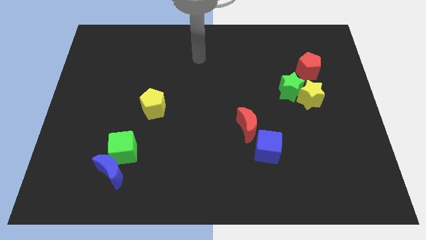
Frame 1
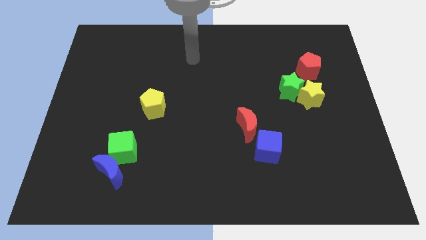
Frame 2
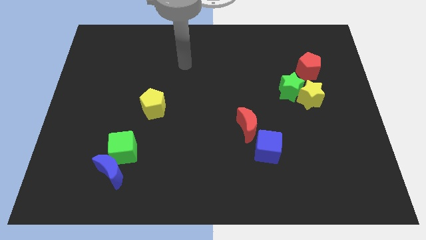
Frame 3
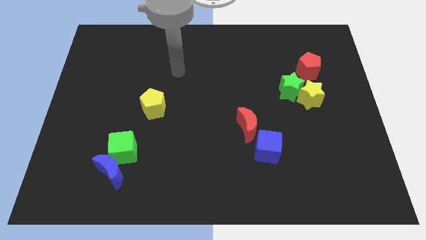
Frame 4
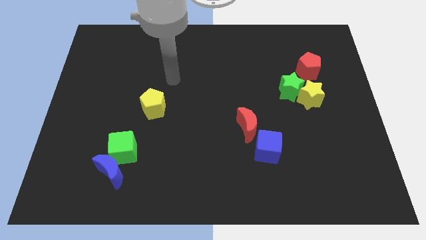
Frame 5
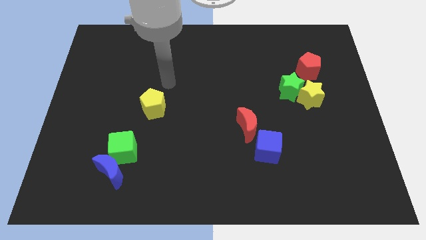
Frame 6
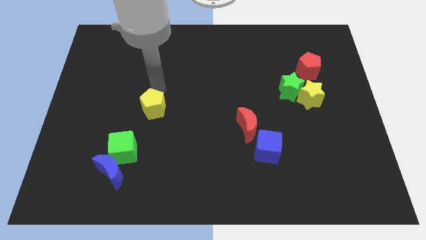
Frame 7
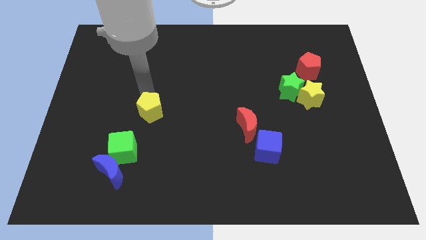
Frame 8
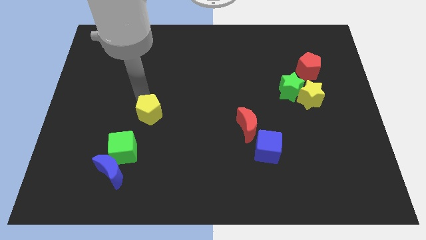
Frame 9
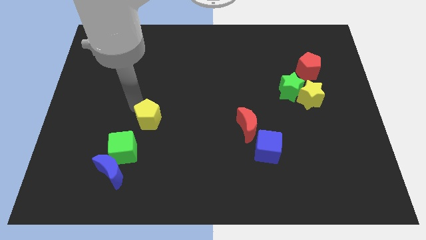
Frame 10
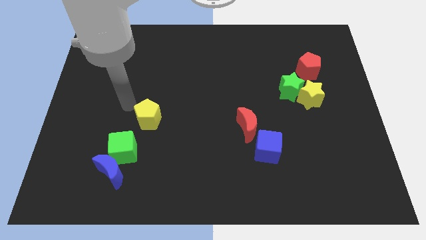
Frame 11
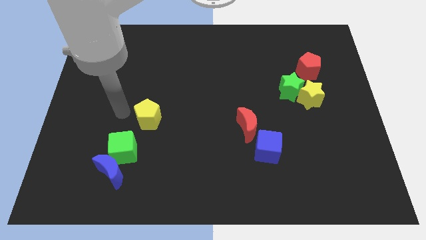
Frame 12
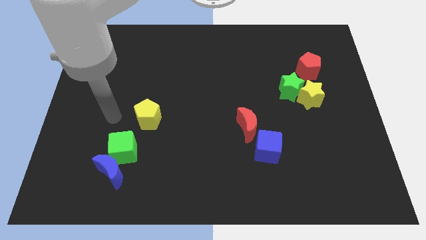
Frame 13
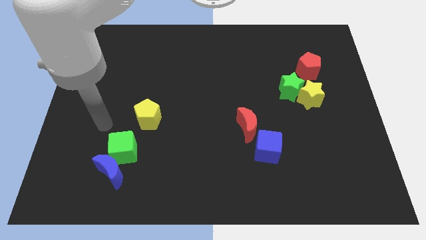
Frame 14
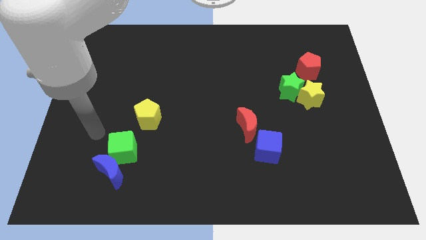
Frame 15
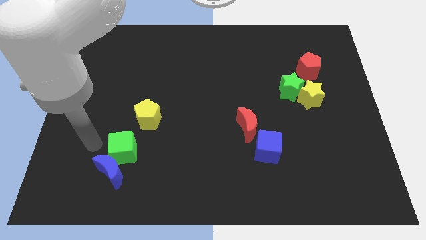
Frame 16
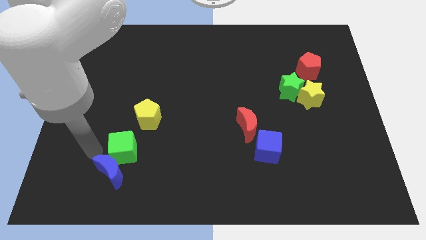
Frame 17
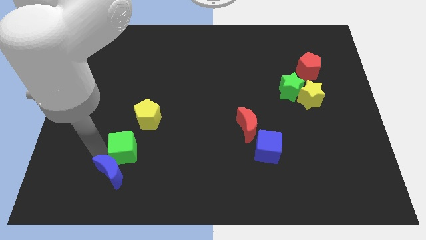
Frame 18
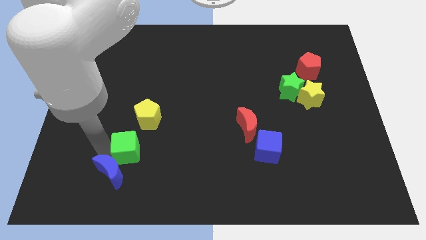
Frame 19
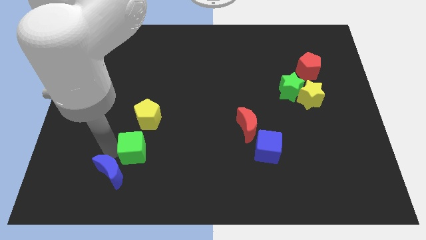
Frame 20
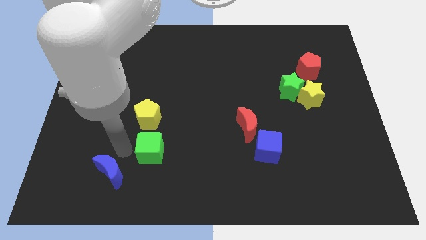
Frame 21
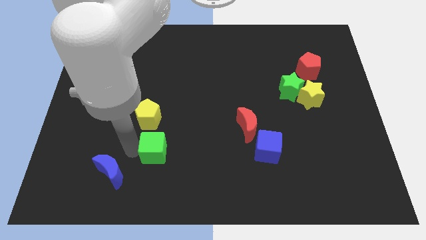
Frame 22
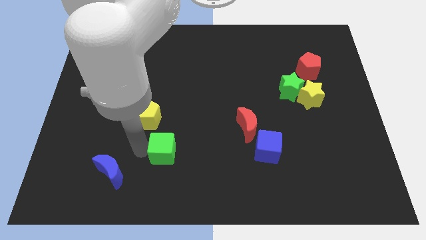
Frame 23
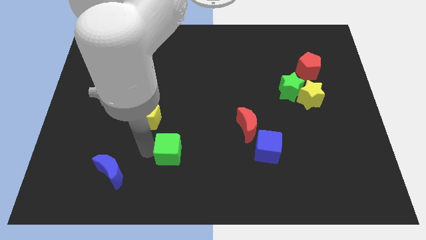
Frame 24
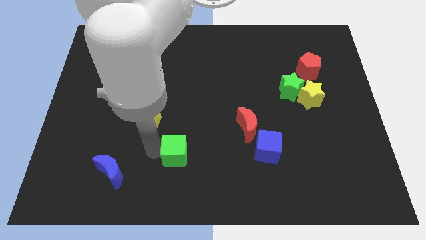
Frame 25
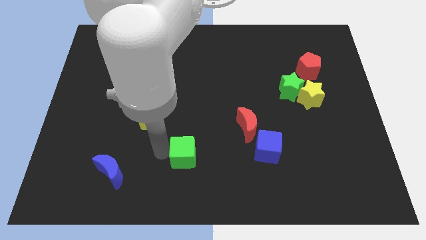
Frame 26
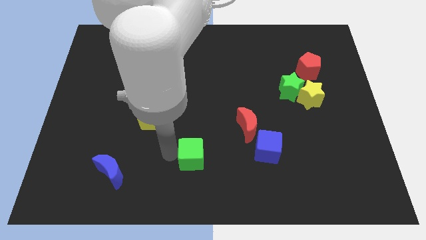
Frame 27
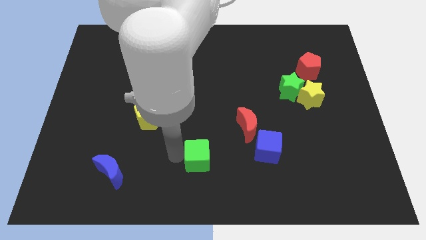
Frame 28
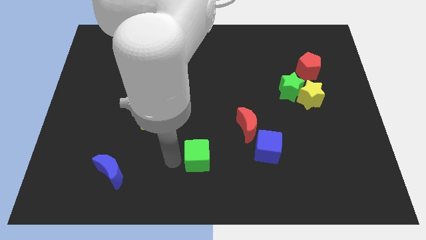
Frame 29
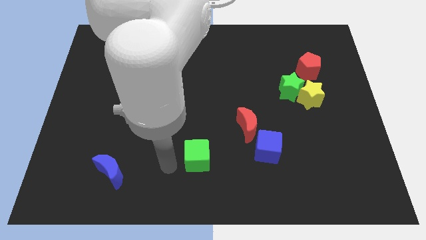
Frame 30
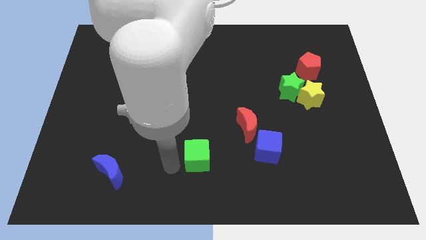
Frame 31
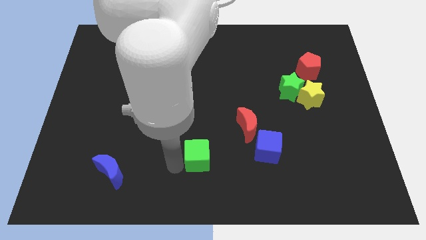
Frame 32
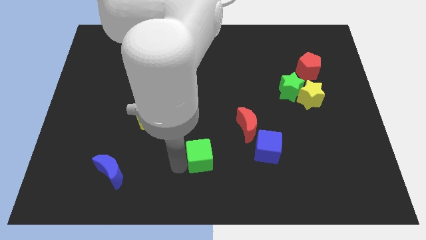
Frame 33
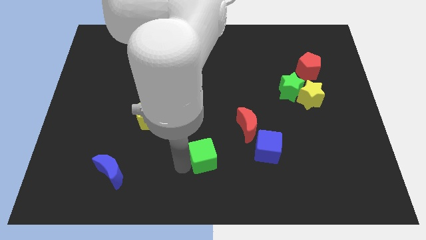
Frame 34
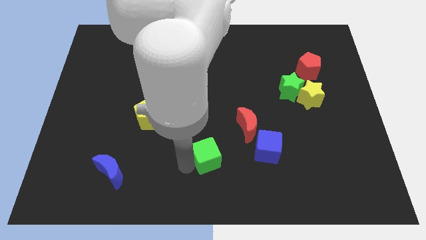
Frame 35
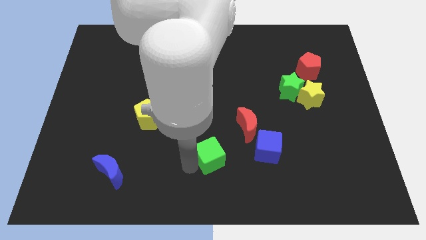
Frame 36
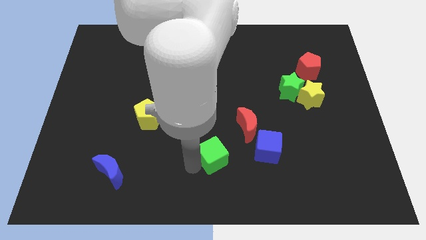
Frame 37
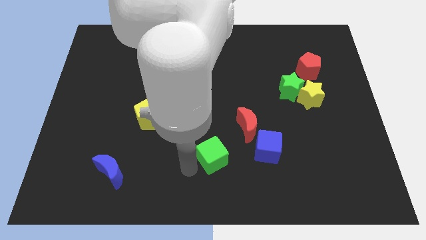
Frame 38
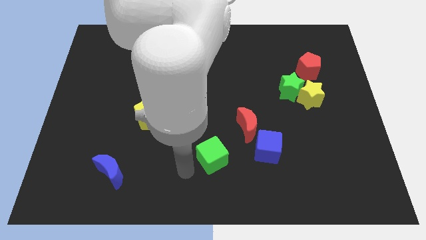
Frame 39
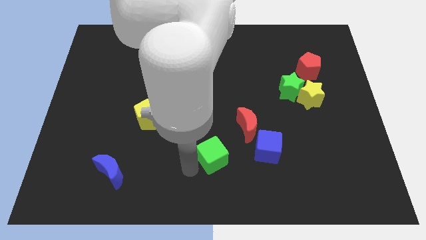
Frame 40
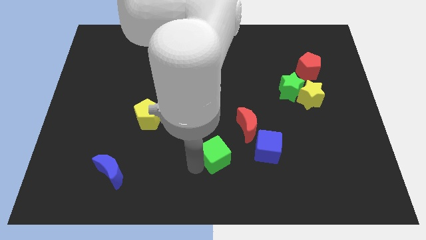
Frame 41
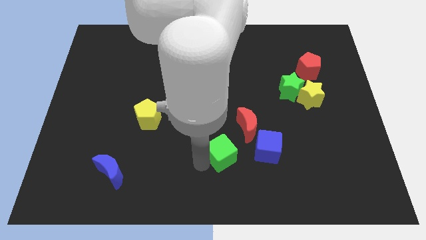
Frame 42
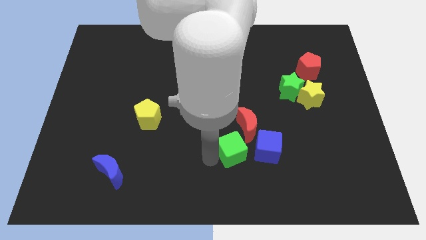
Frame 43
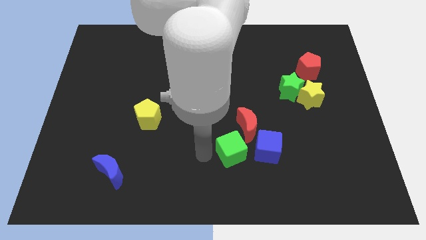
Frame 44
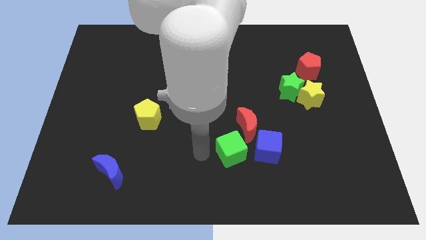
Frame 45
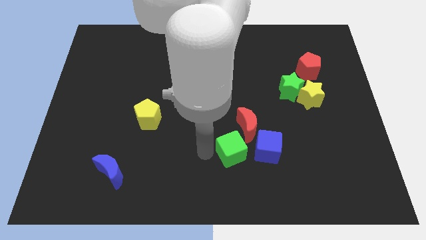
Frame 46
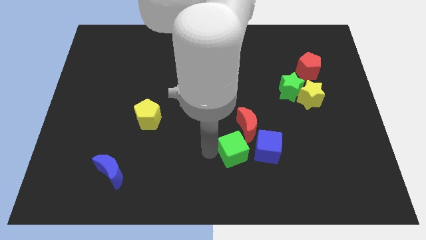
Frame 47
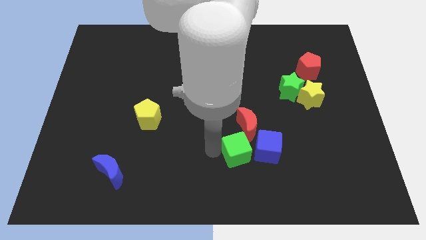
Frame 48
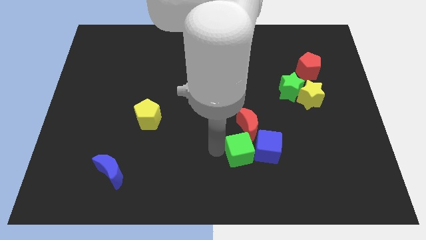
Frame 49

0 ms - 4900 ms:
move the green cube towards the blue cube

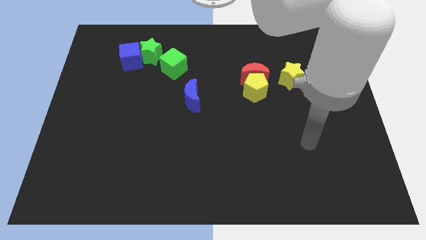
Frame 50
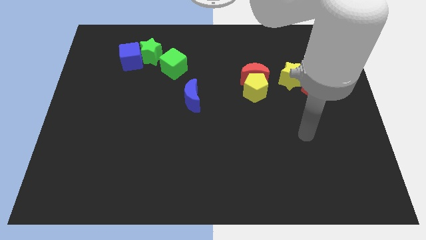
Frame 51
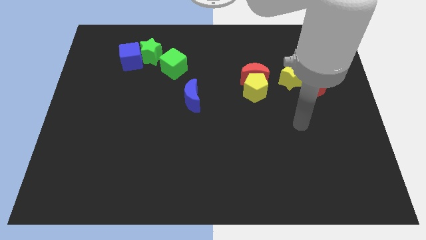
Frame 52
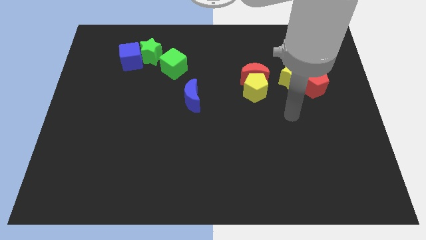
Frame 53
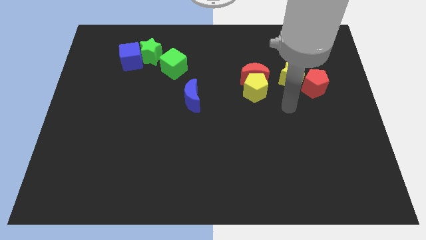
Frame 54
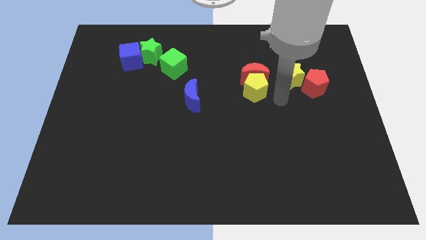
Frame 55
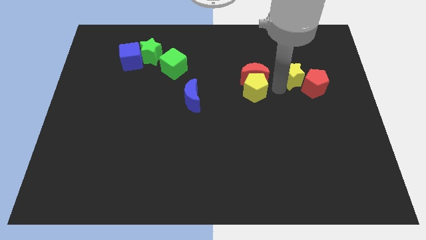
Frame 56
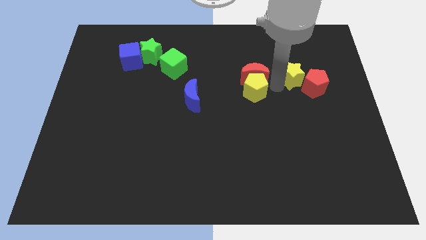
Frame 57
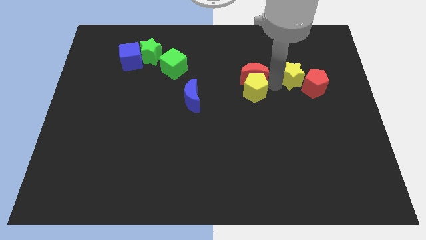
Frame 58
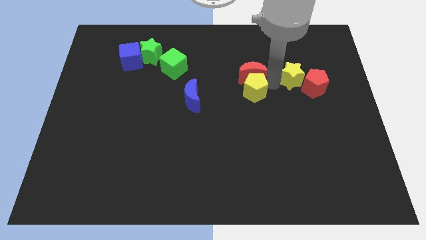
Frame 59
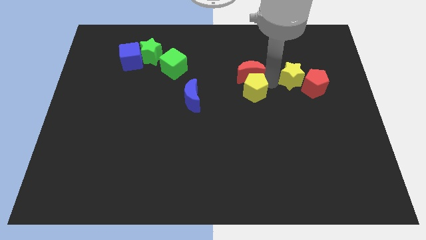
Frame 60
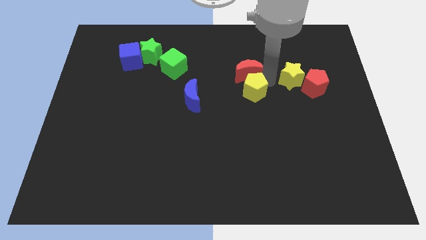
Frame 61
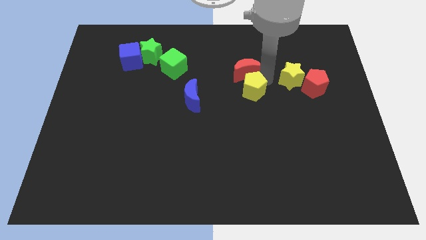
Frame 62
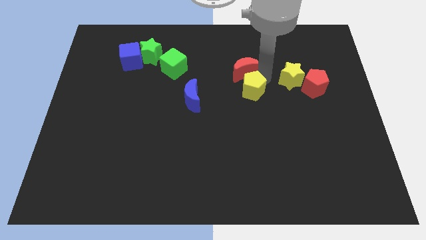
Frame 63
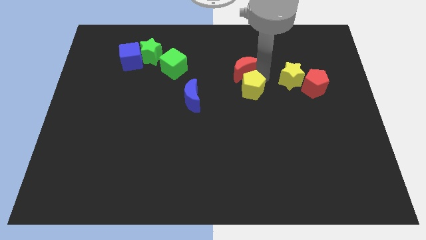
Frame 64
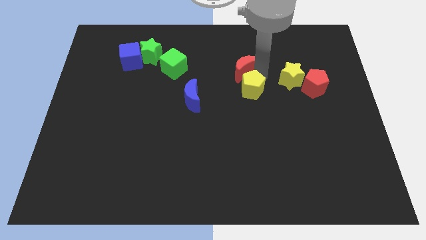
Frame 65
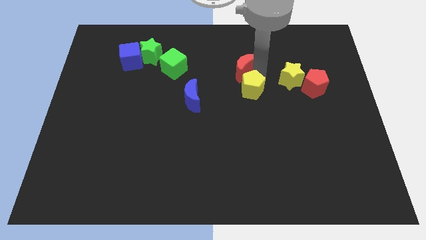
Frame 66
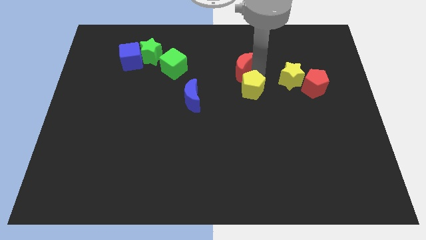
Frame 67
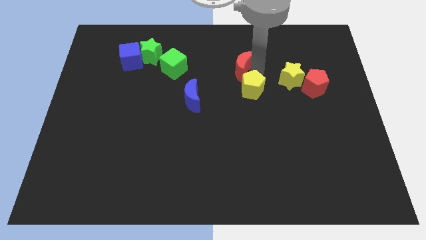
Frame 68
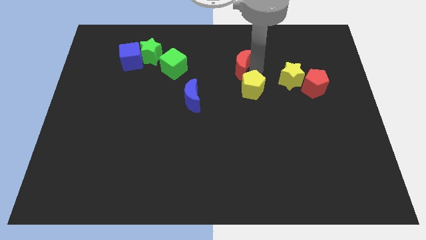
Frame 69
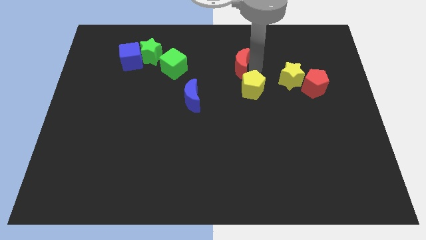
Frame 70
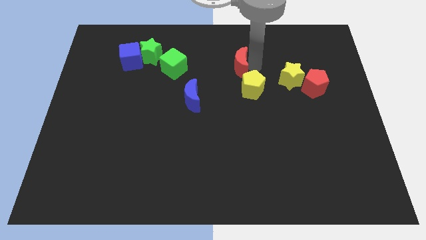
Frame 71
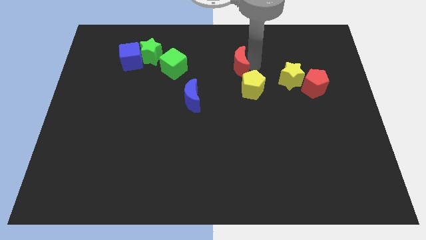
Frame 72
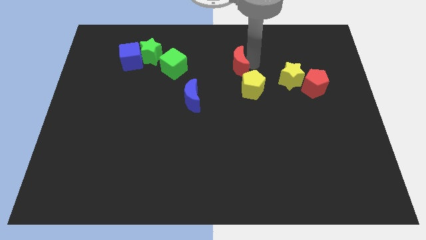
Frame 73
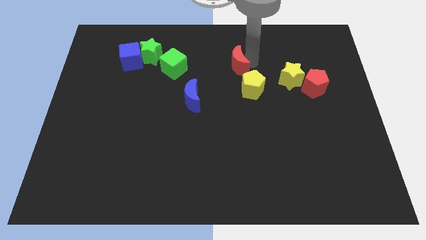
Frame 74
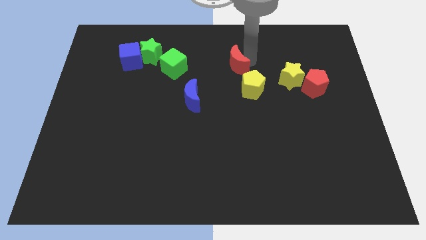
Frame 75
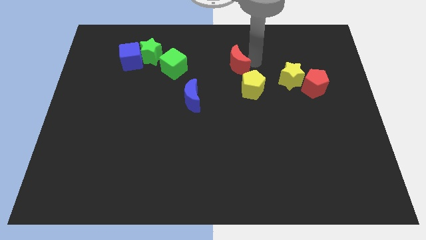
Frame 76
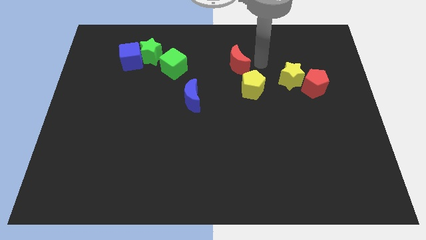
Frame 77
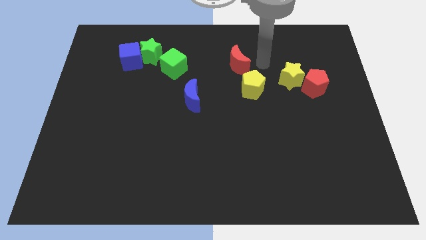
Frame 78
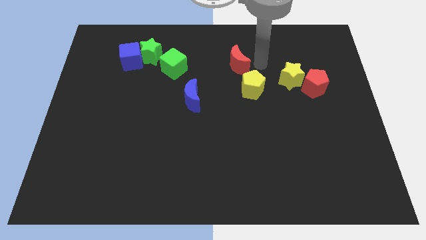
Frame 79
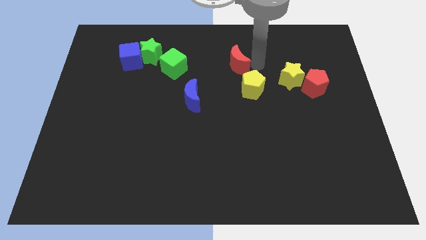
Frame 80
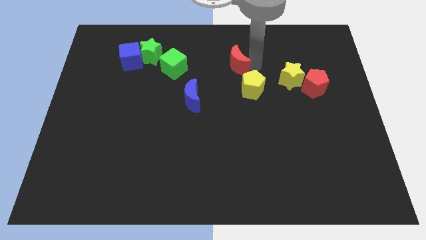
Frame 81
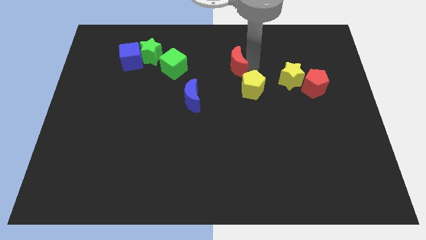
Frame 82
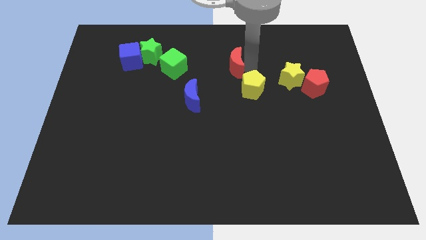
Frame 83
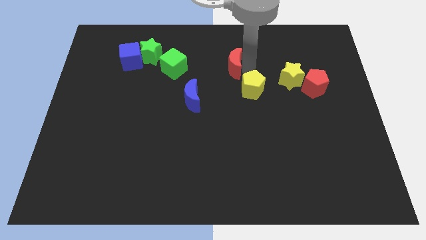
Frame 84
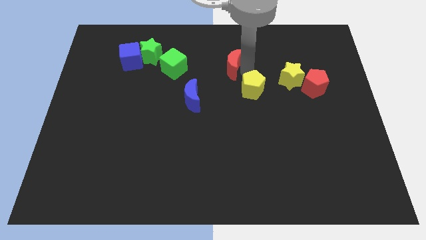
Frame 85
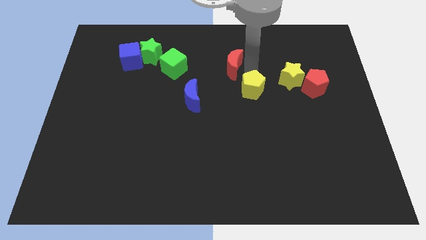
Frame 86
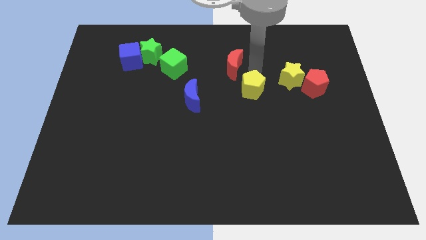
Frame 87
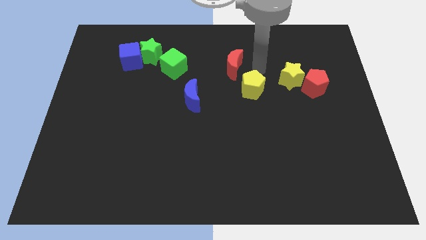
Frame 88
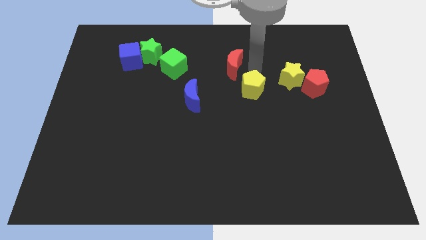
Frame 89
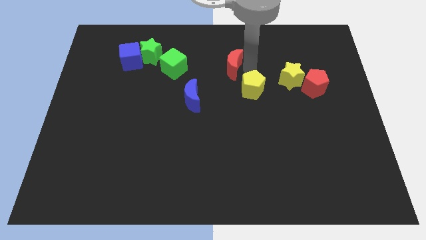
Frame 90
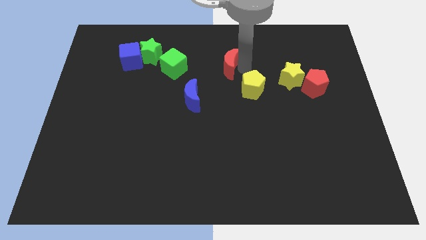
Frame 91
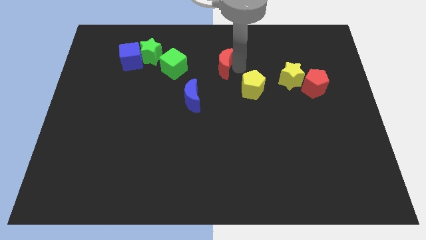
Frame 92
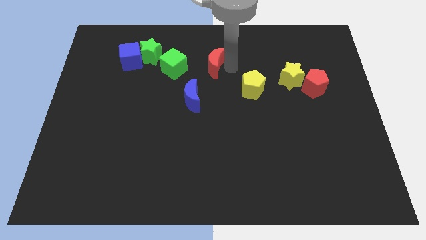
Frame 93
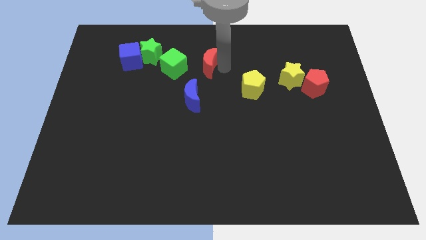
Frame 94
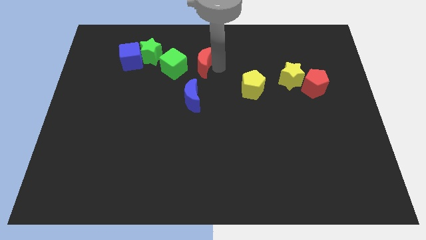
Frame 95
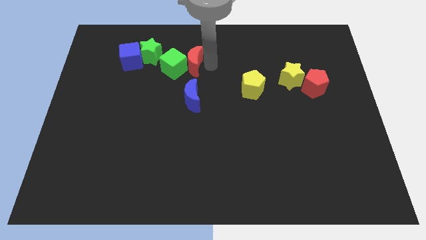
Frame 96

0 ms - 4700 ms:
put the red moon close to the green cube
